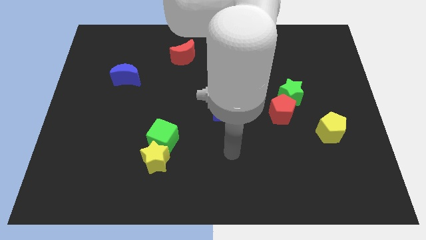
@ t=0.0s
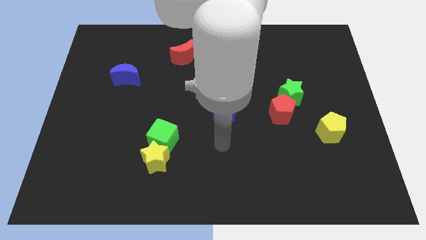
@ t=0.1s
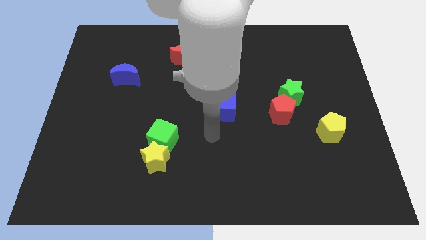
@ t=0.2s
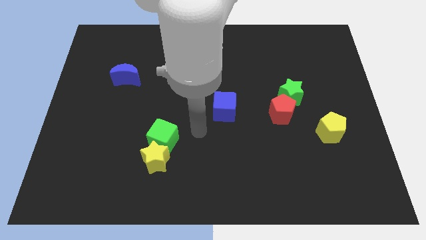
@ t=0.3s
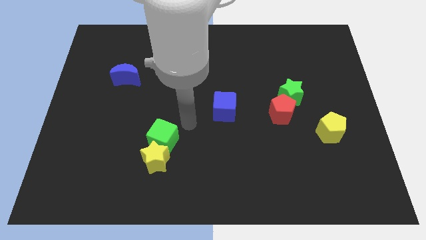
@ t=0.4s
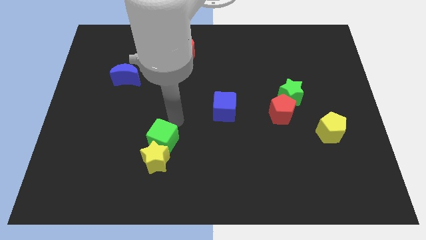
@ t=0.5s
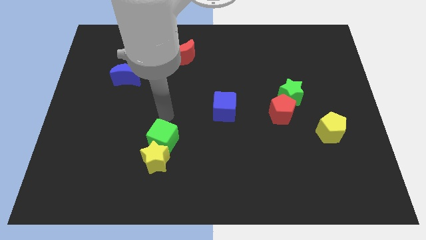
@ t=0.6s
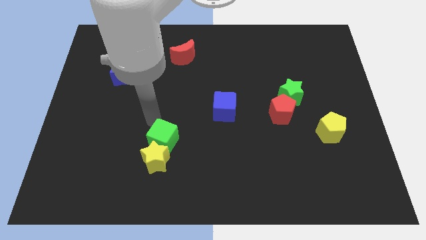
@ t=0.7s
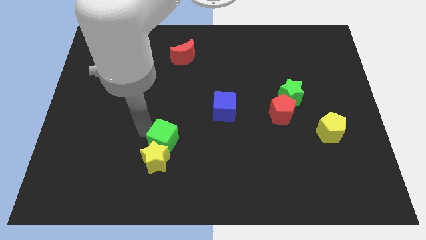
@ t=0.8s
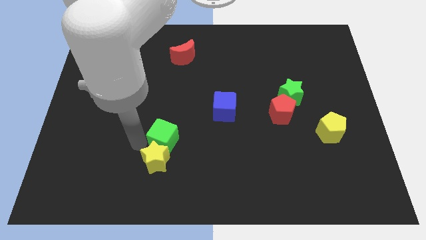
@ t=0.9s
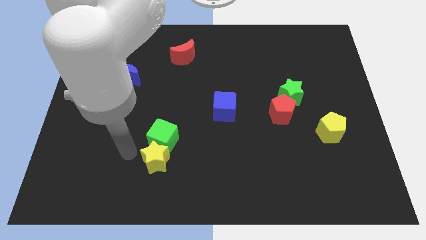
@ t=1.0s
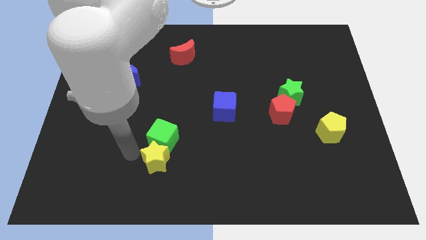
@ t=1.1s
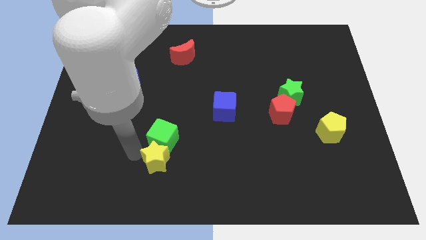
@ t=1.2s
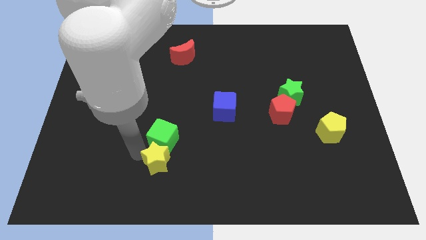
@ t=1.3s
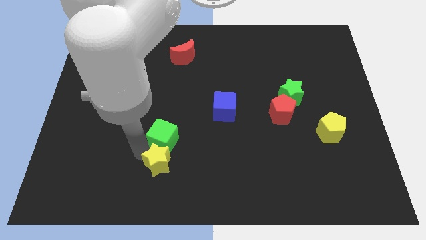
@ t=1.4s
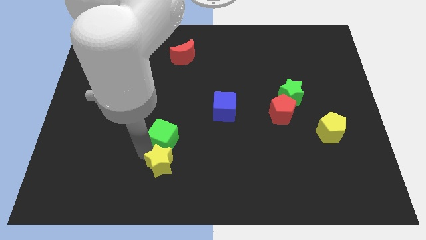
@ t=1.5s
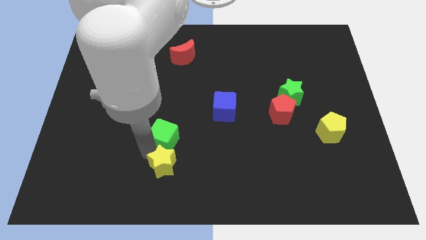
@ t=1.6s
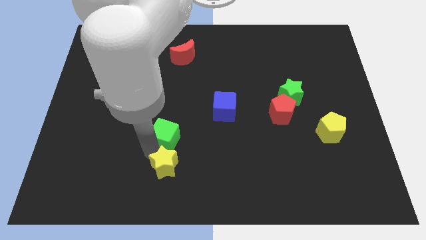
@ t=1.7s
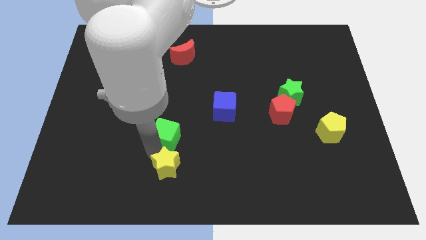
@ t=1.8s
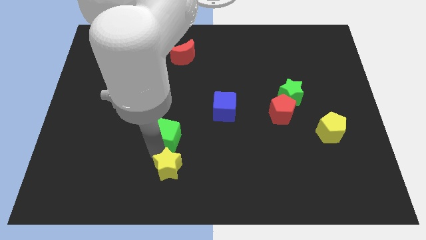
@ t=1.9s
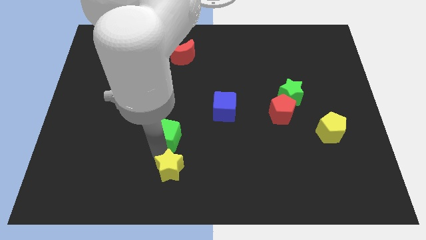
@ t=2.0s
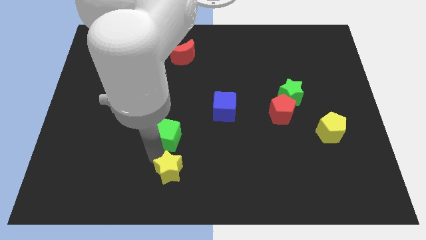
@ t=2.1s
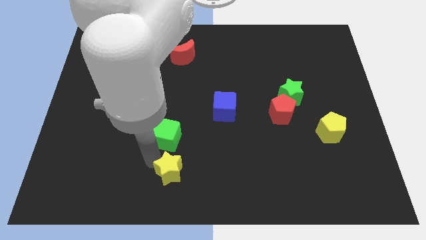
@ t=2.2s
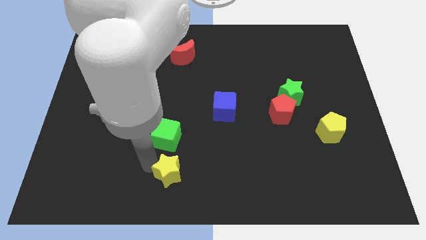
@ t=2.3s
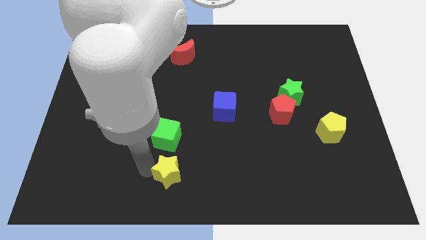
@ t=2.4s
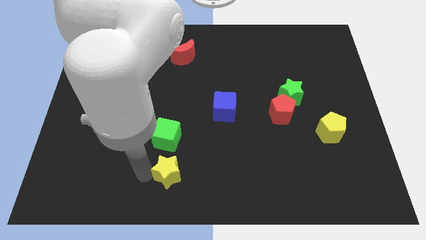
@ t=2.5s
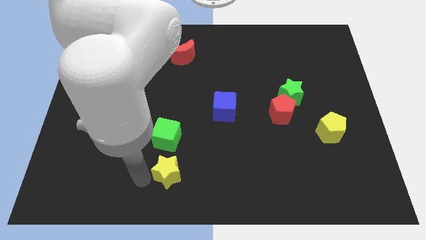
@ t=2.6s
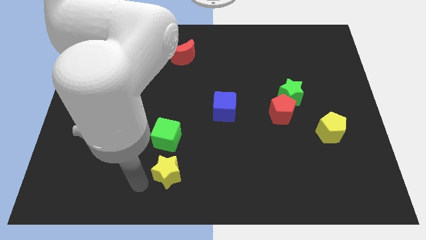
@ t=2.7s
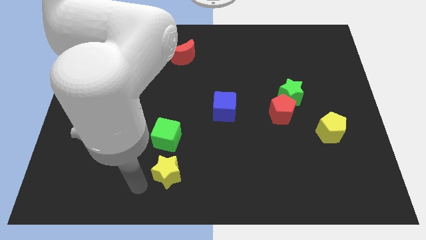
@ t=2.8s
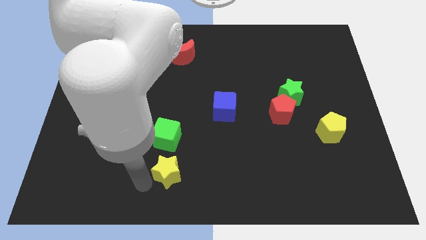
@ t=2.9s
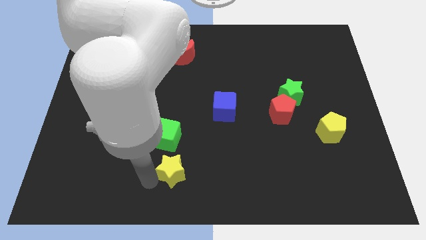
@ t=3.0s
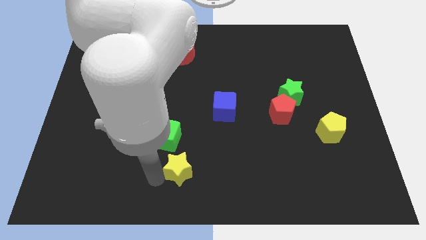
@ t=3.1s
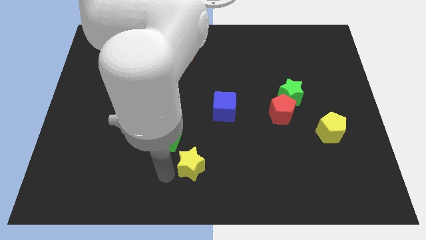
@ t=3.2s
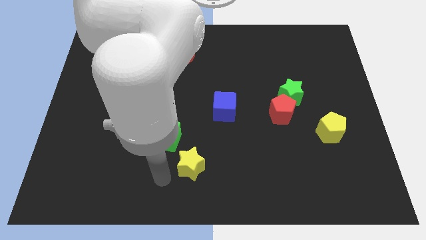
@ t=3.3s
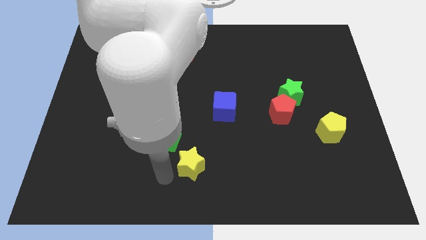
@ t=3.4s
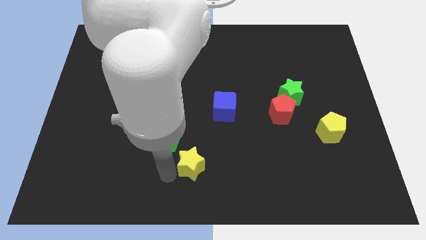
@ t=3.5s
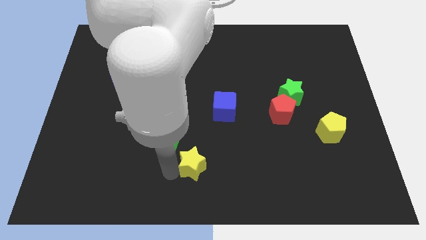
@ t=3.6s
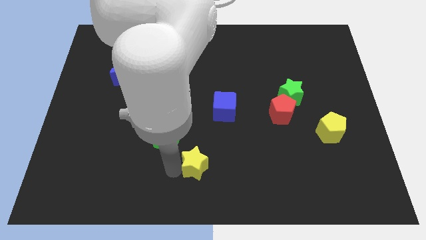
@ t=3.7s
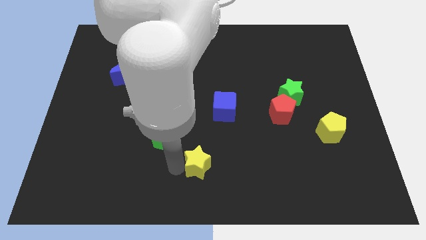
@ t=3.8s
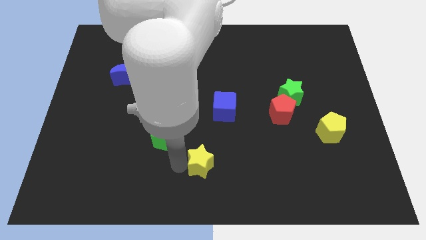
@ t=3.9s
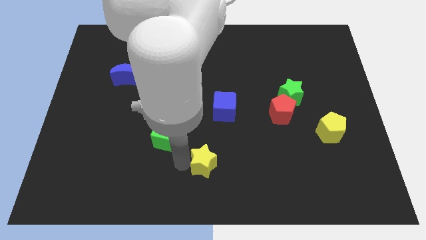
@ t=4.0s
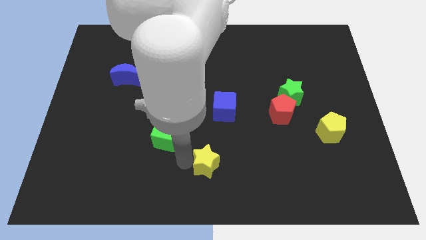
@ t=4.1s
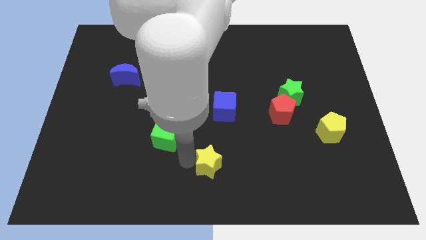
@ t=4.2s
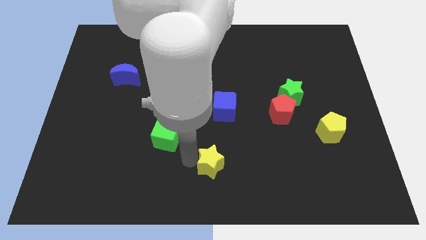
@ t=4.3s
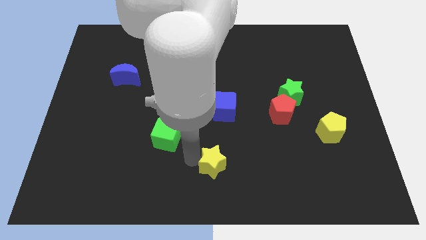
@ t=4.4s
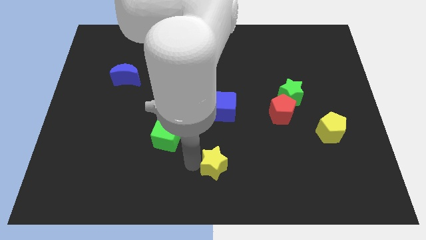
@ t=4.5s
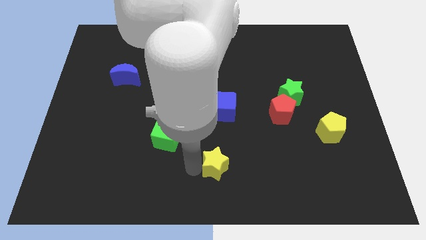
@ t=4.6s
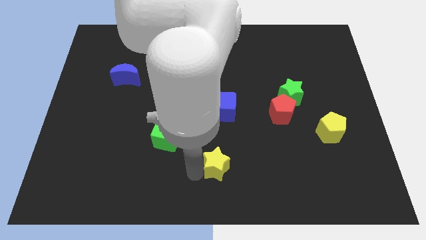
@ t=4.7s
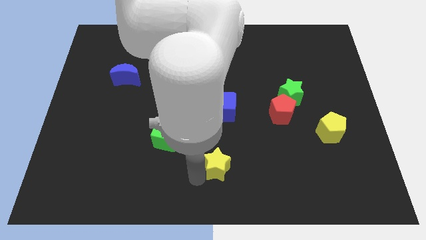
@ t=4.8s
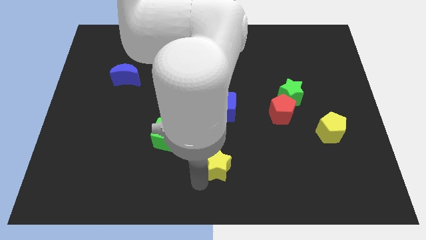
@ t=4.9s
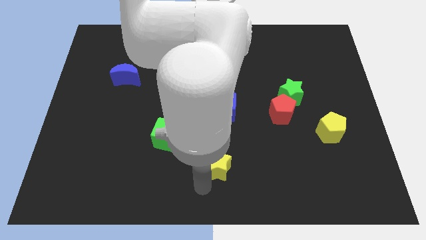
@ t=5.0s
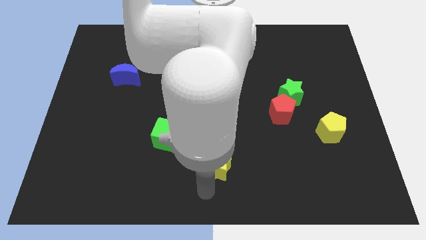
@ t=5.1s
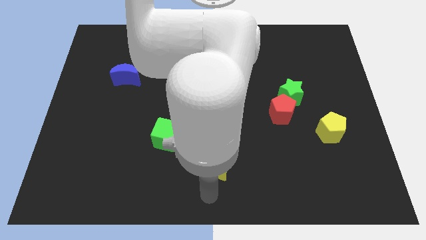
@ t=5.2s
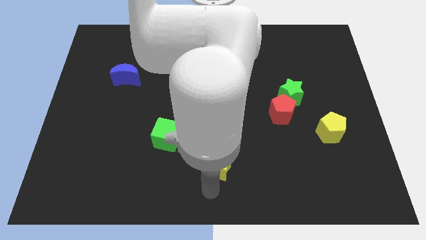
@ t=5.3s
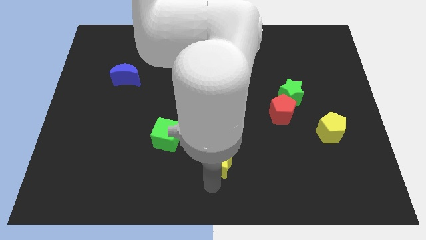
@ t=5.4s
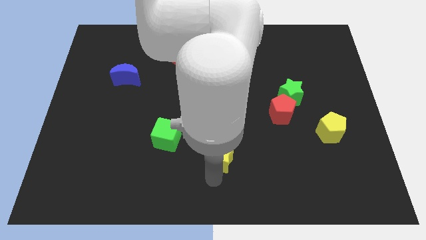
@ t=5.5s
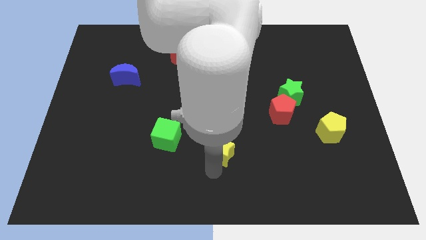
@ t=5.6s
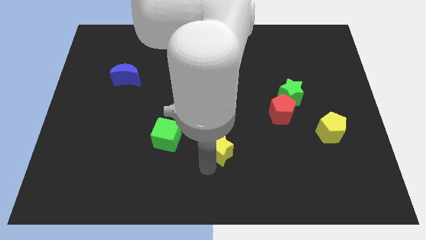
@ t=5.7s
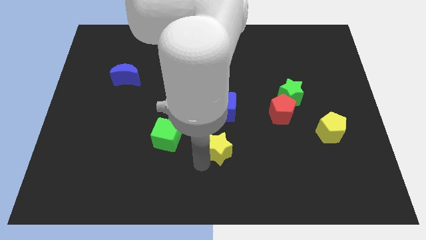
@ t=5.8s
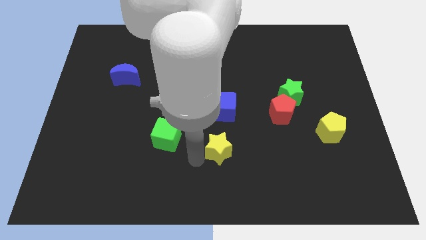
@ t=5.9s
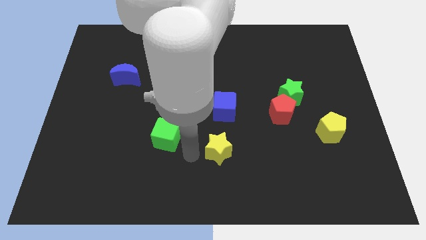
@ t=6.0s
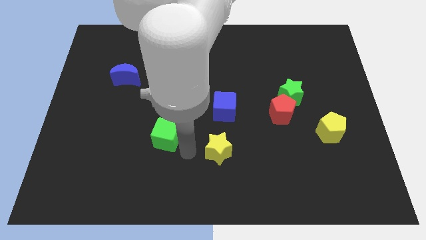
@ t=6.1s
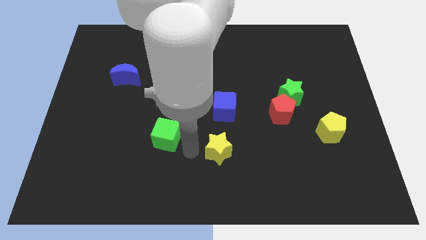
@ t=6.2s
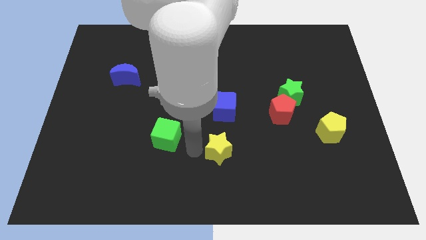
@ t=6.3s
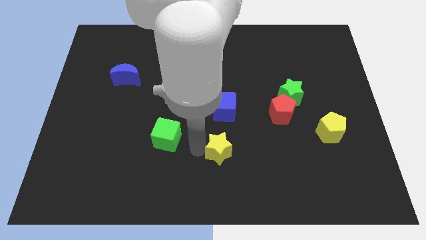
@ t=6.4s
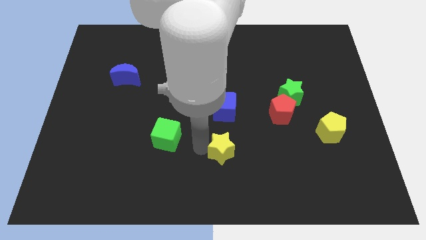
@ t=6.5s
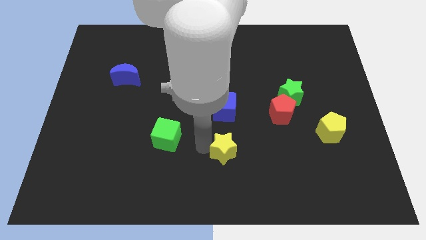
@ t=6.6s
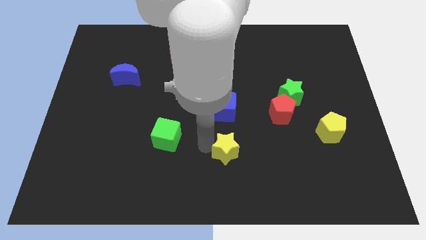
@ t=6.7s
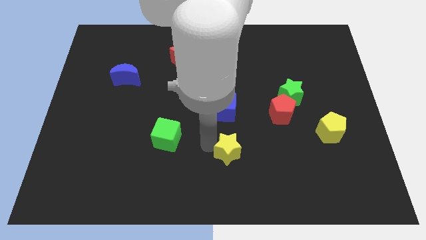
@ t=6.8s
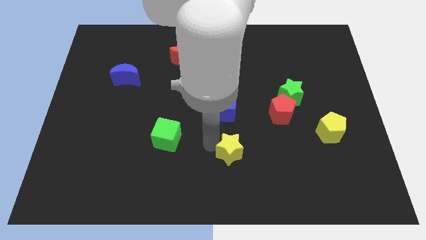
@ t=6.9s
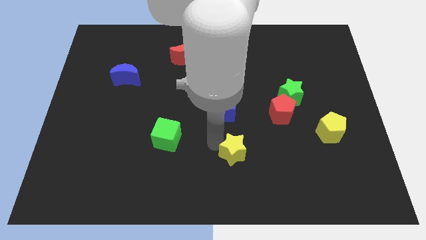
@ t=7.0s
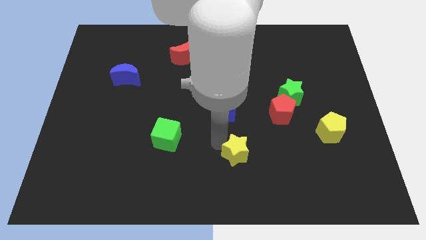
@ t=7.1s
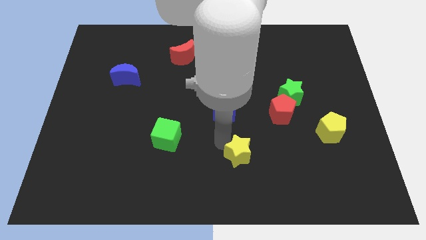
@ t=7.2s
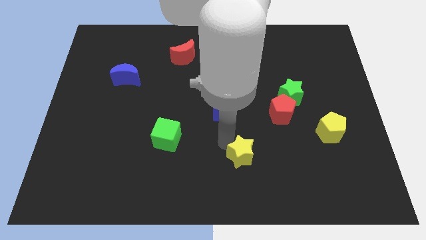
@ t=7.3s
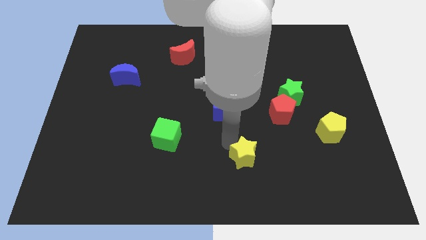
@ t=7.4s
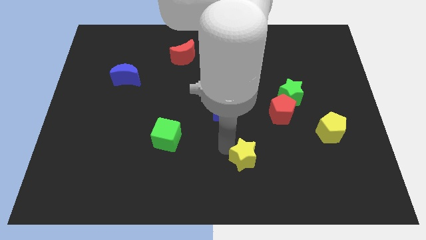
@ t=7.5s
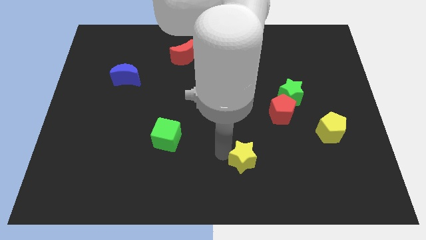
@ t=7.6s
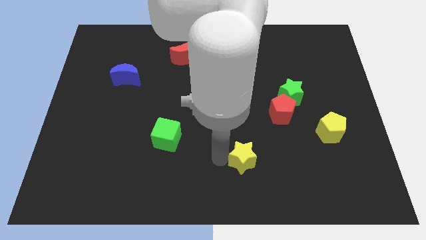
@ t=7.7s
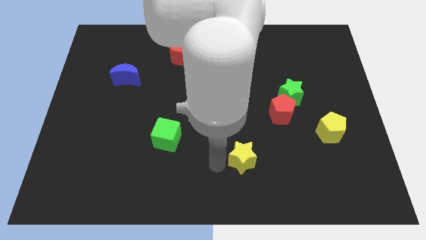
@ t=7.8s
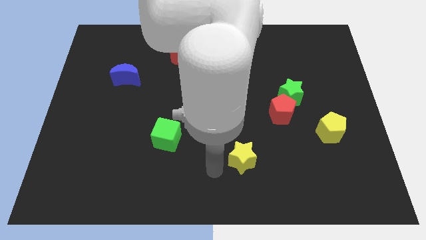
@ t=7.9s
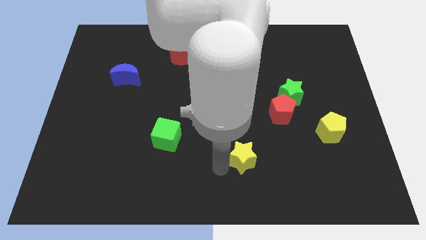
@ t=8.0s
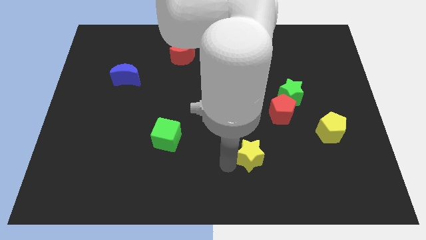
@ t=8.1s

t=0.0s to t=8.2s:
push the yellow star right
